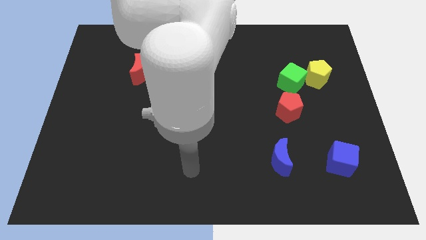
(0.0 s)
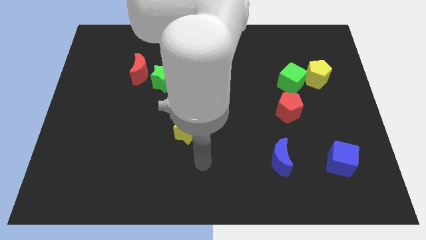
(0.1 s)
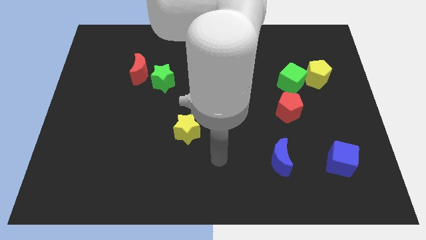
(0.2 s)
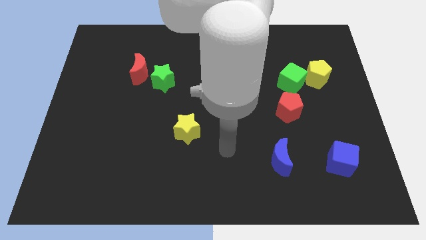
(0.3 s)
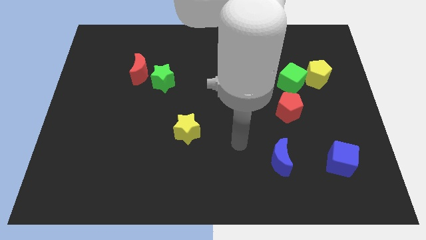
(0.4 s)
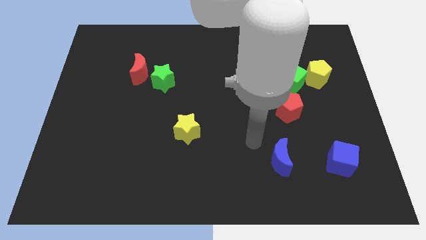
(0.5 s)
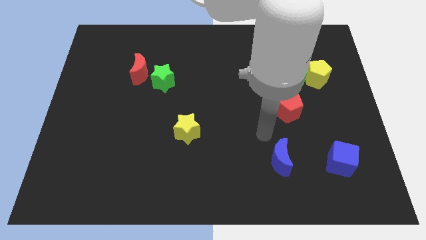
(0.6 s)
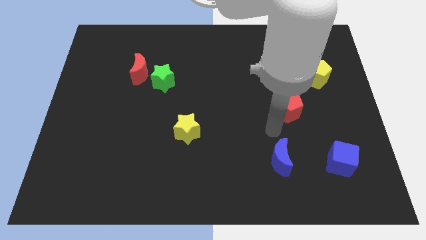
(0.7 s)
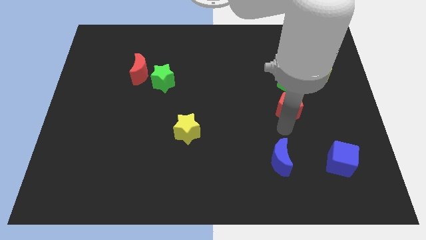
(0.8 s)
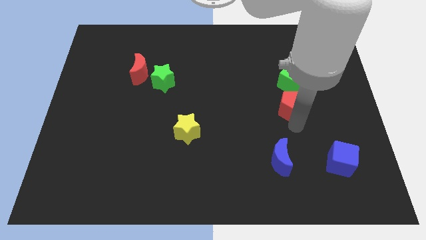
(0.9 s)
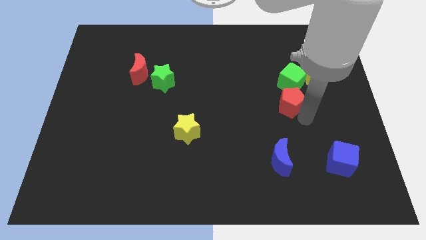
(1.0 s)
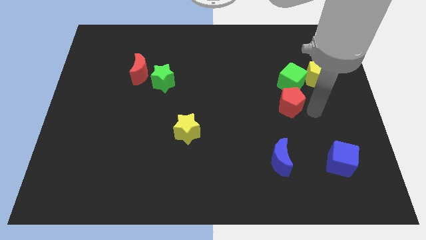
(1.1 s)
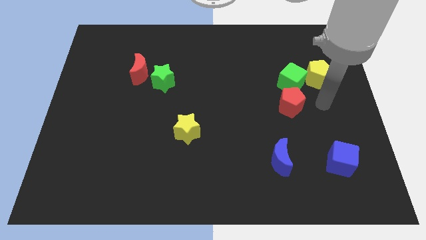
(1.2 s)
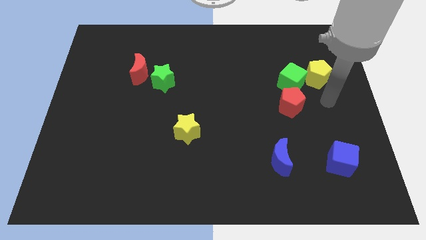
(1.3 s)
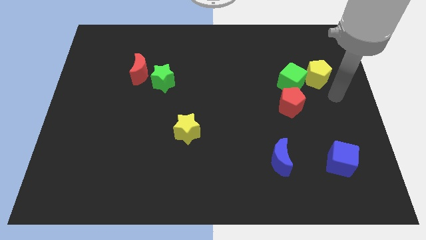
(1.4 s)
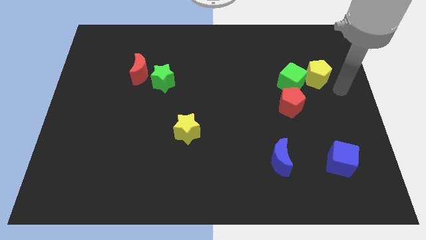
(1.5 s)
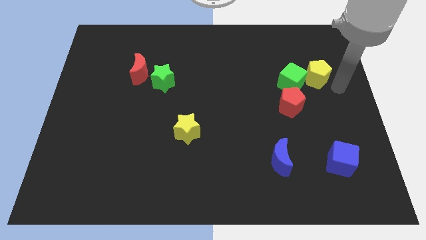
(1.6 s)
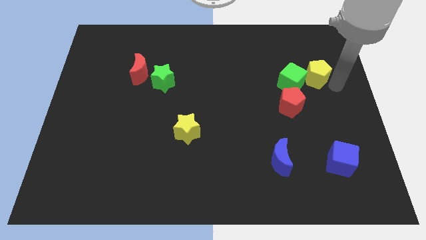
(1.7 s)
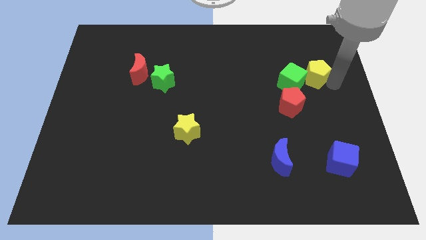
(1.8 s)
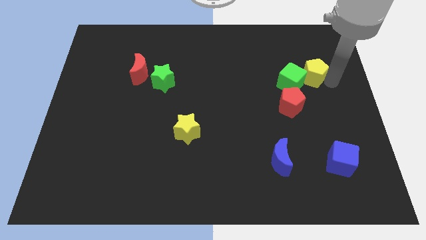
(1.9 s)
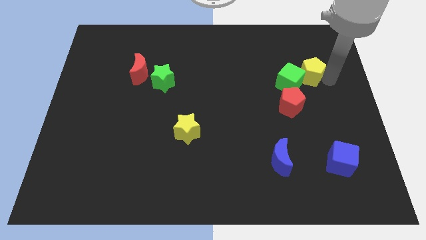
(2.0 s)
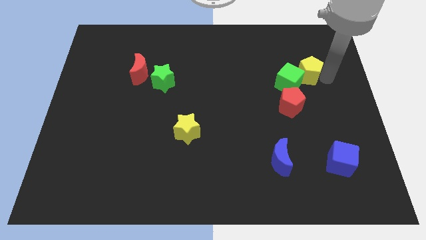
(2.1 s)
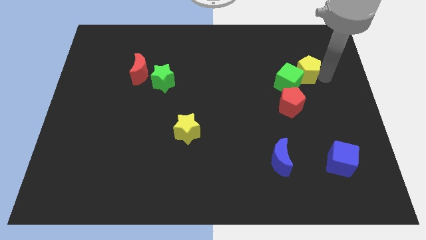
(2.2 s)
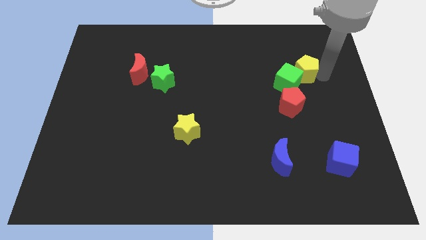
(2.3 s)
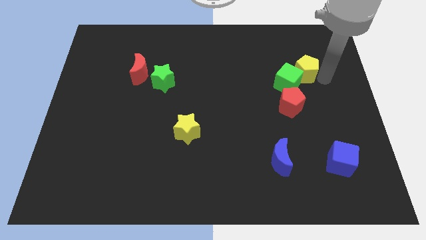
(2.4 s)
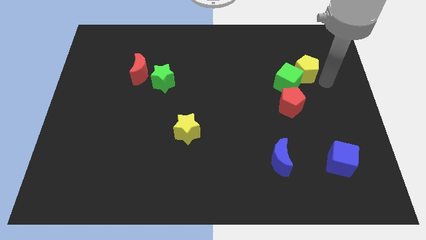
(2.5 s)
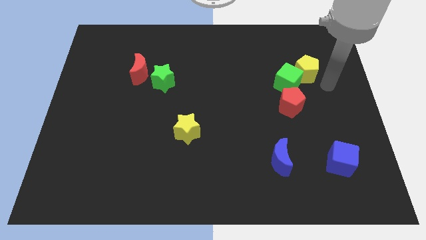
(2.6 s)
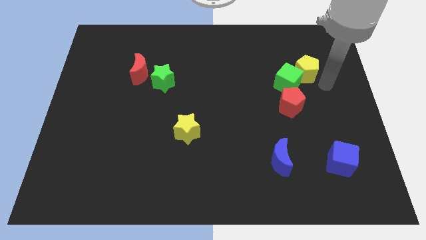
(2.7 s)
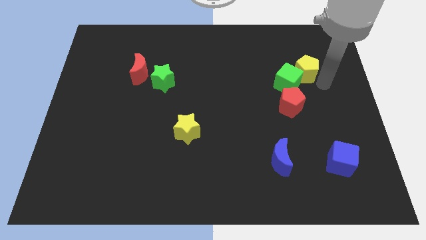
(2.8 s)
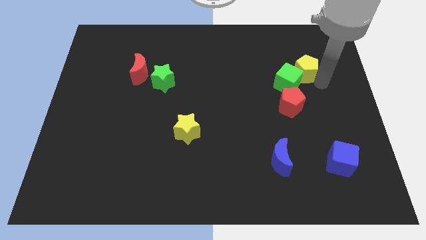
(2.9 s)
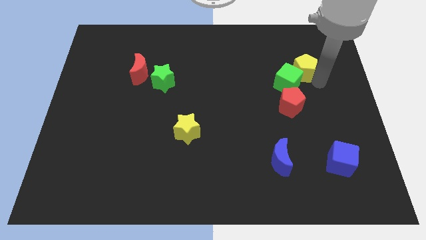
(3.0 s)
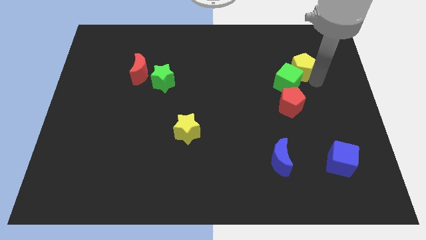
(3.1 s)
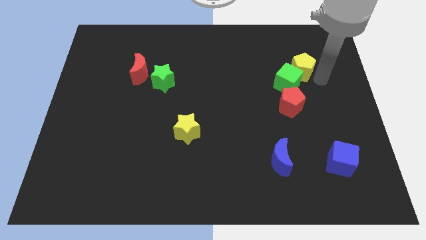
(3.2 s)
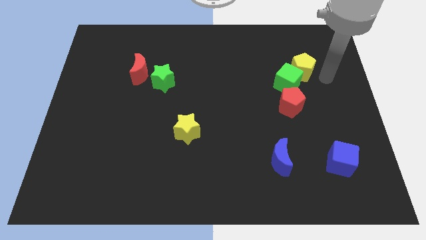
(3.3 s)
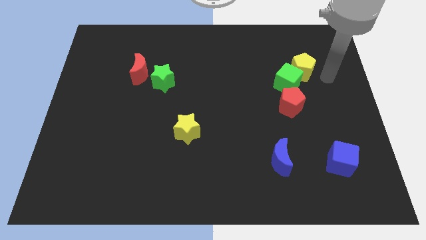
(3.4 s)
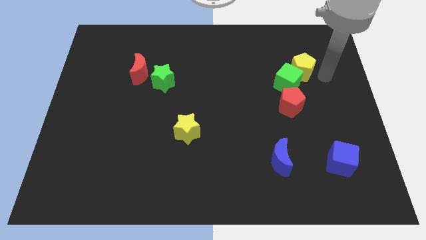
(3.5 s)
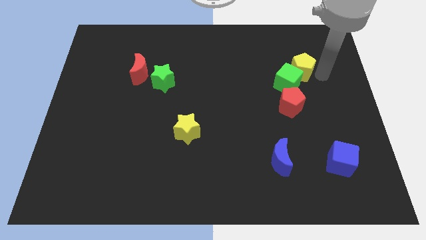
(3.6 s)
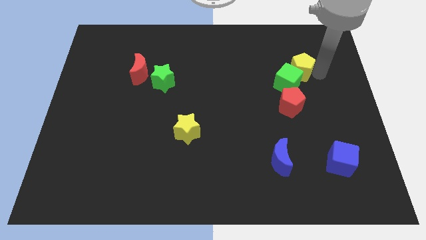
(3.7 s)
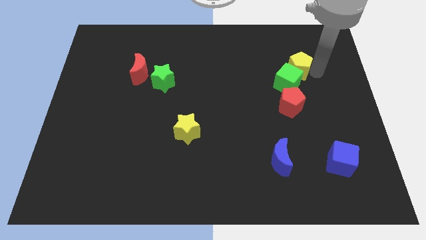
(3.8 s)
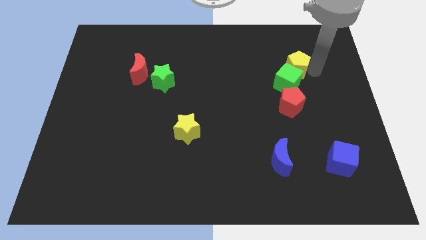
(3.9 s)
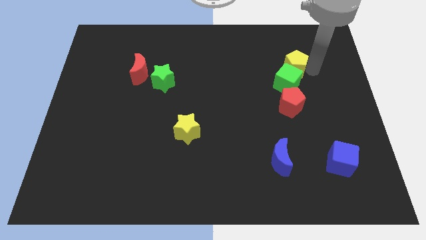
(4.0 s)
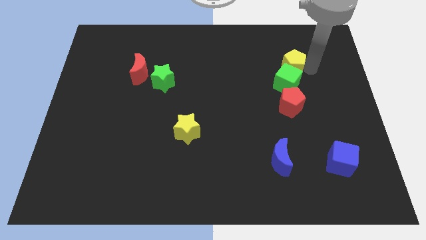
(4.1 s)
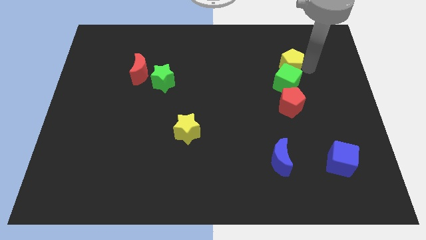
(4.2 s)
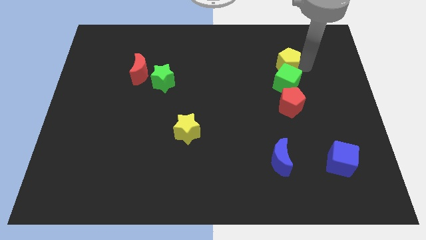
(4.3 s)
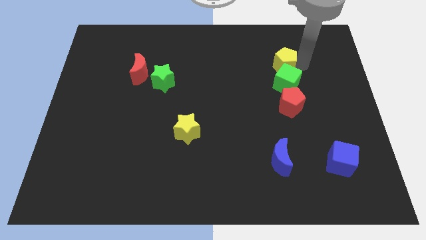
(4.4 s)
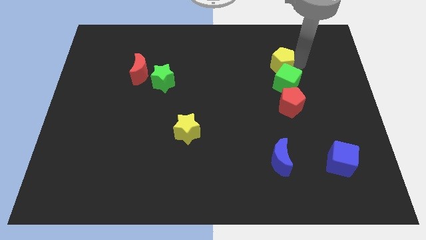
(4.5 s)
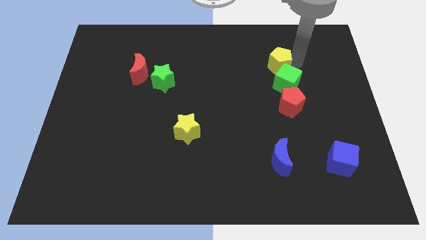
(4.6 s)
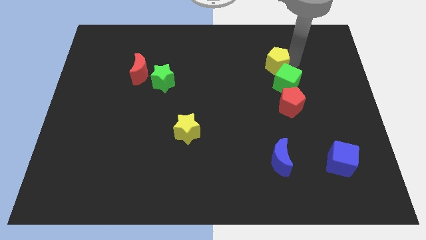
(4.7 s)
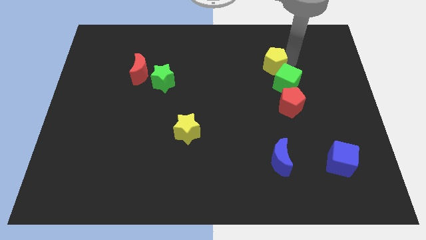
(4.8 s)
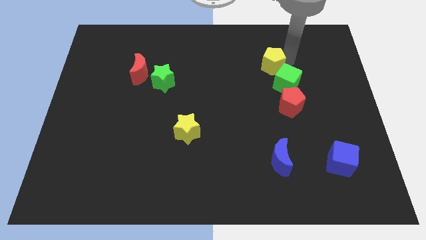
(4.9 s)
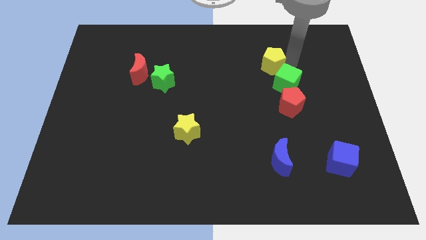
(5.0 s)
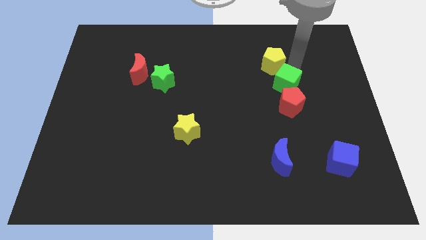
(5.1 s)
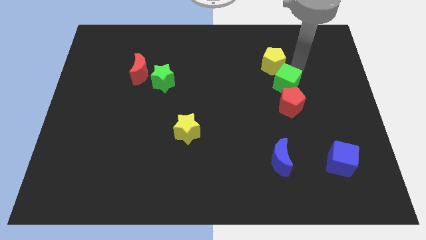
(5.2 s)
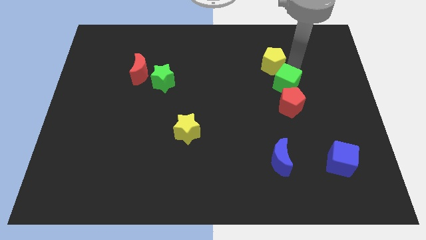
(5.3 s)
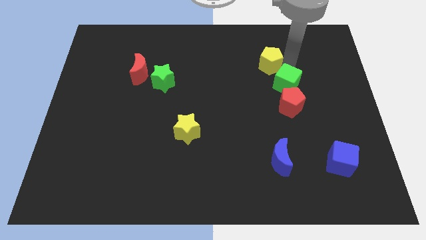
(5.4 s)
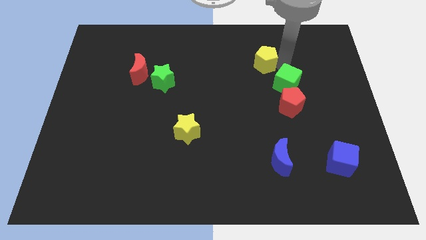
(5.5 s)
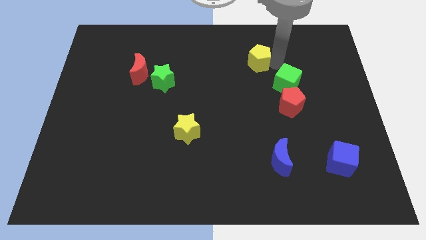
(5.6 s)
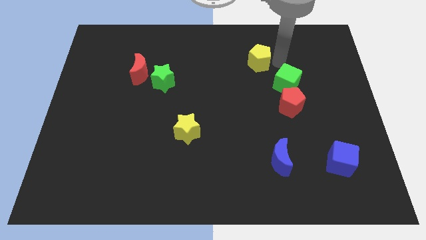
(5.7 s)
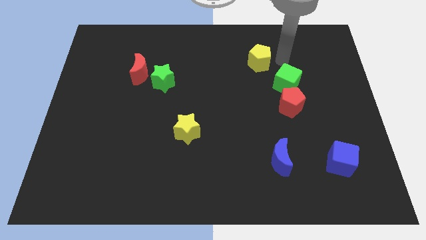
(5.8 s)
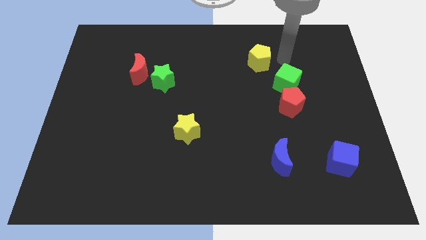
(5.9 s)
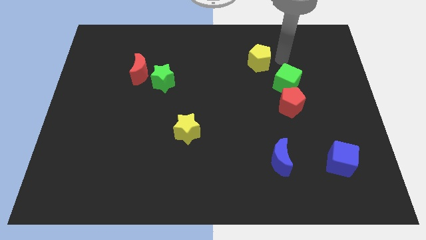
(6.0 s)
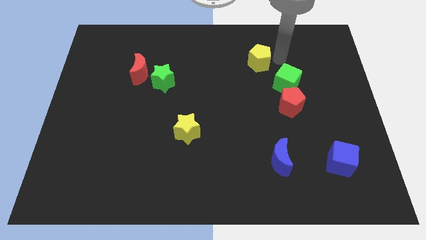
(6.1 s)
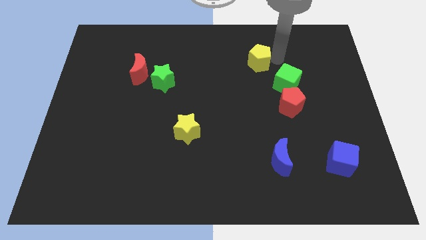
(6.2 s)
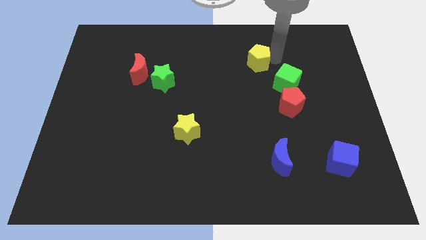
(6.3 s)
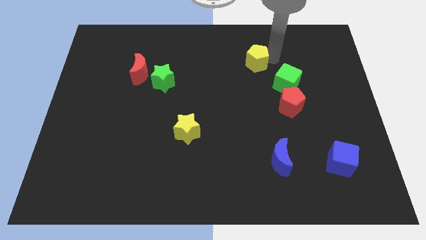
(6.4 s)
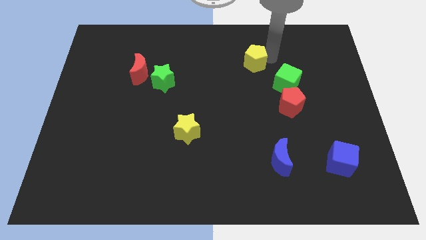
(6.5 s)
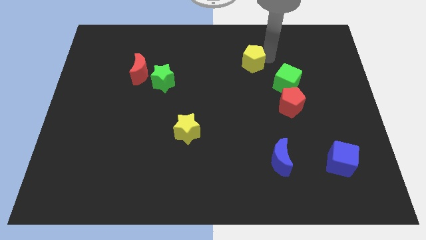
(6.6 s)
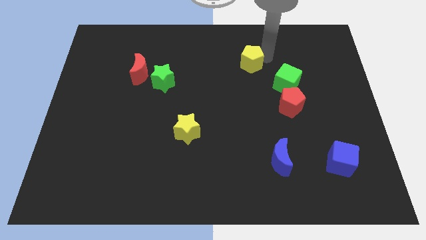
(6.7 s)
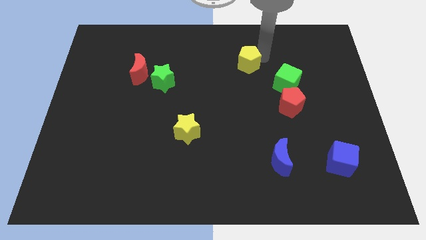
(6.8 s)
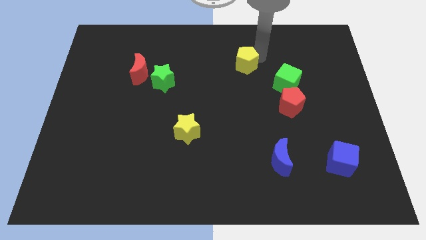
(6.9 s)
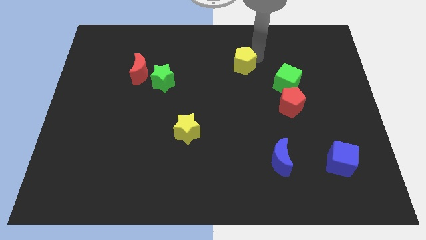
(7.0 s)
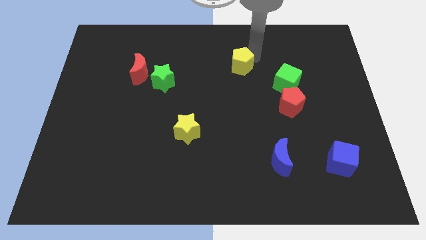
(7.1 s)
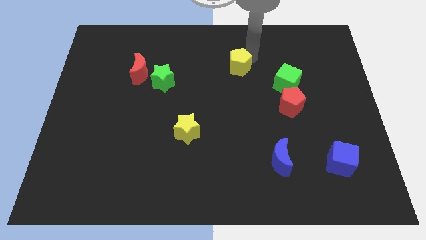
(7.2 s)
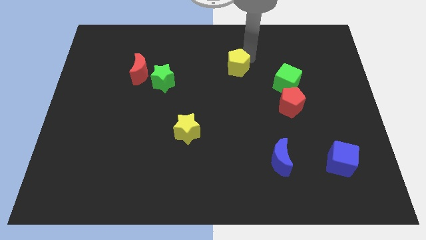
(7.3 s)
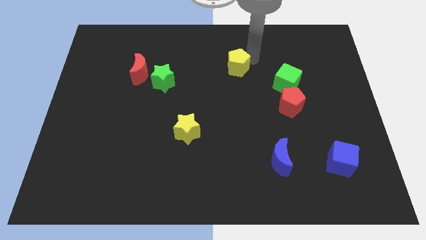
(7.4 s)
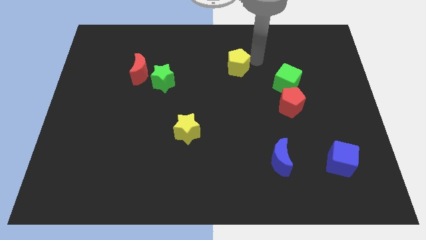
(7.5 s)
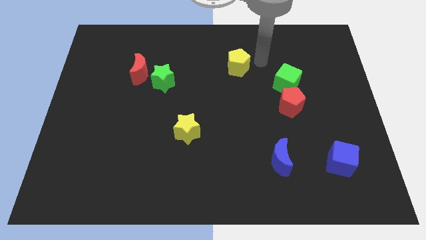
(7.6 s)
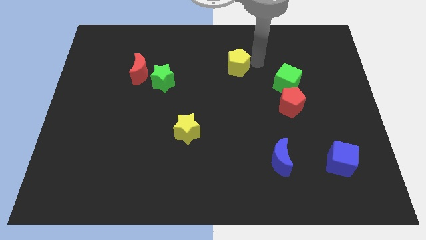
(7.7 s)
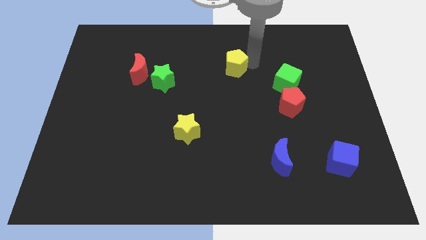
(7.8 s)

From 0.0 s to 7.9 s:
push the yellow pentagon to the left
